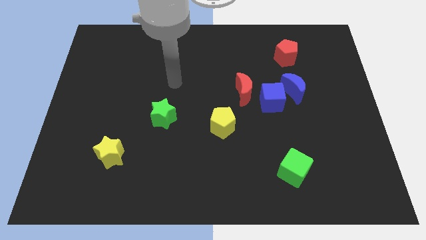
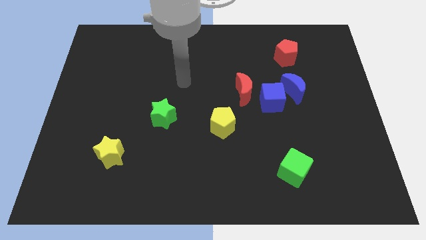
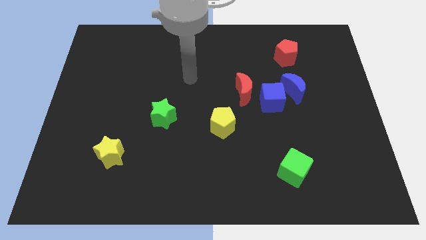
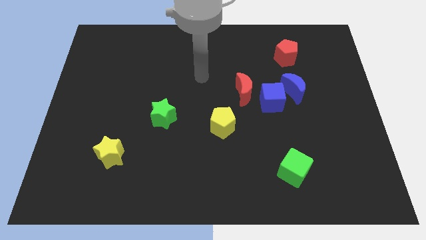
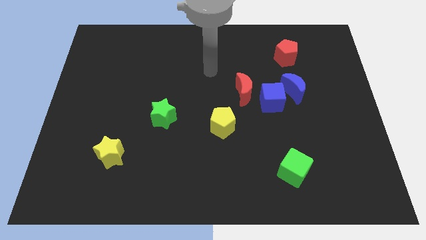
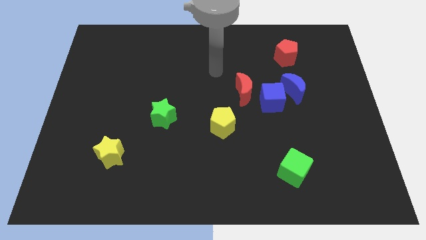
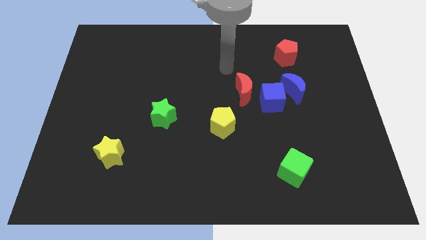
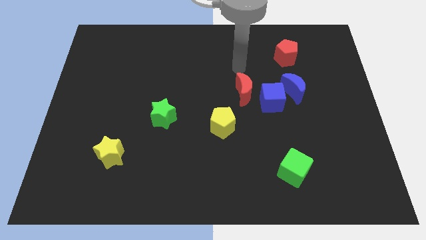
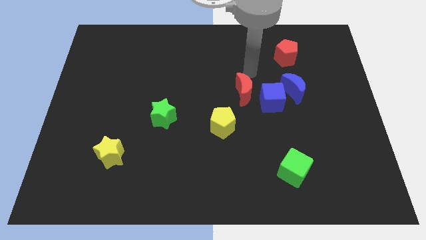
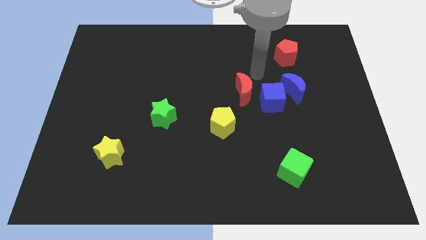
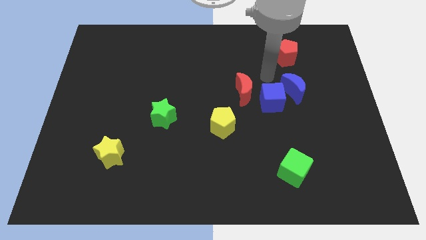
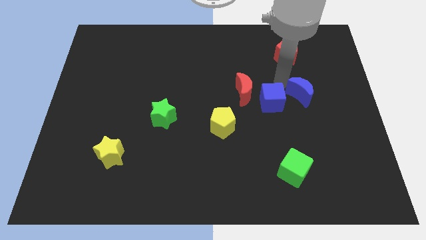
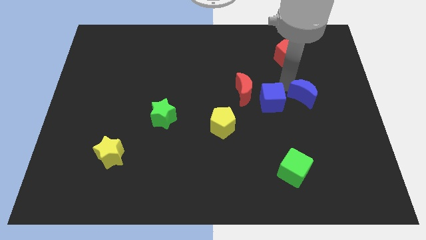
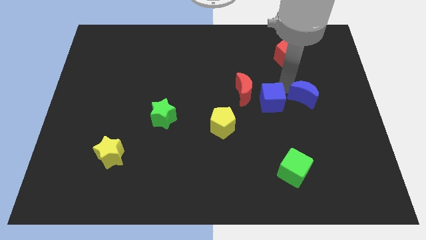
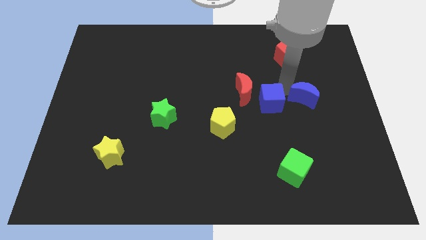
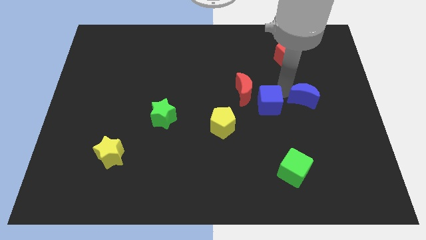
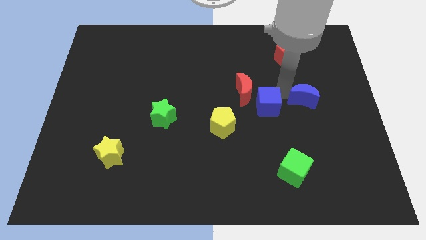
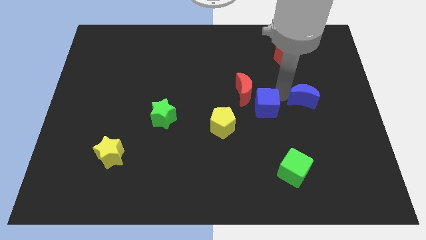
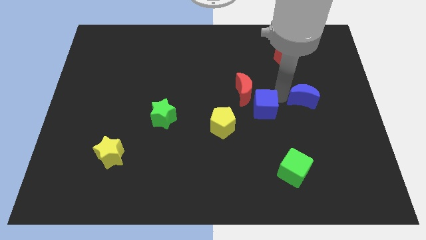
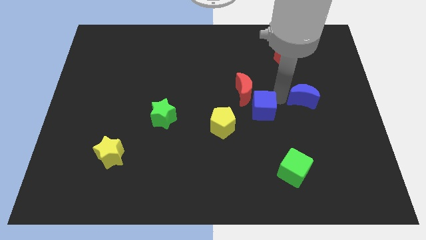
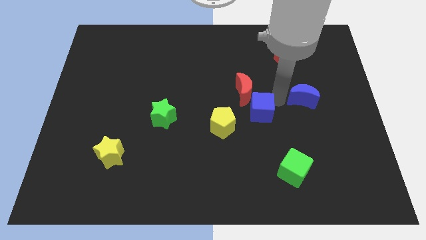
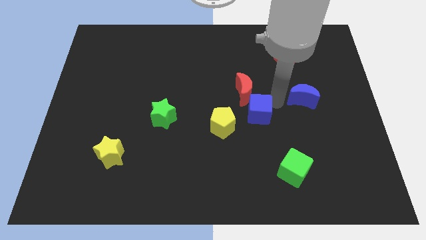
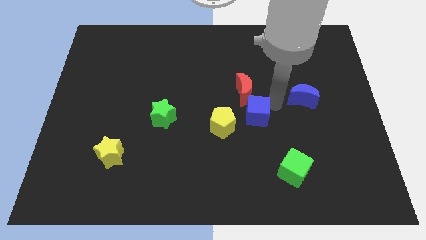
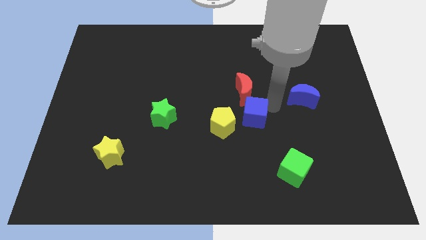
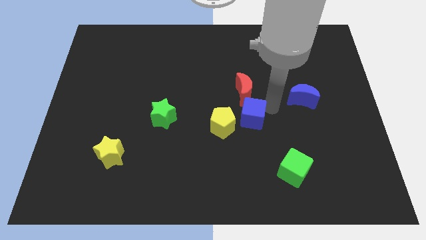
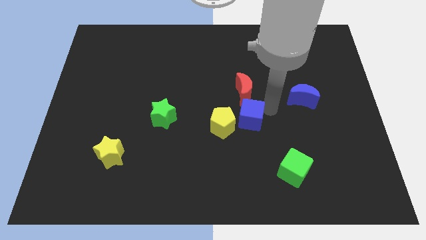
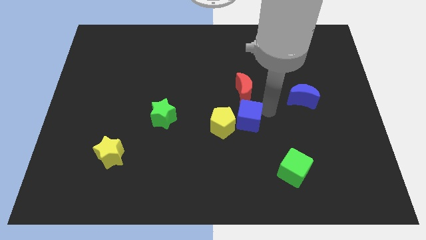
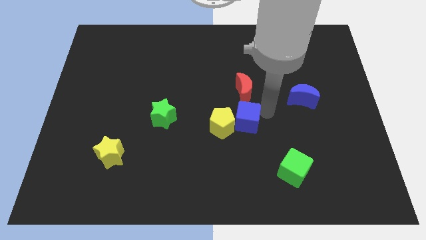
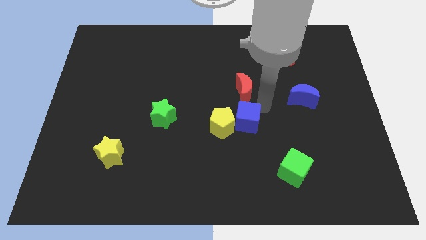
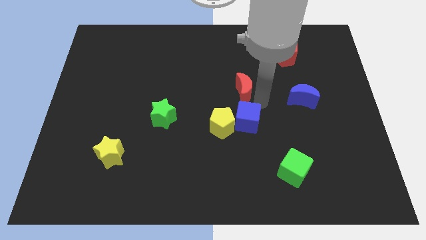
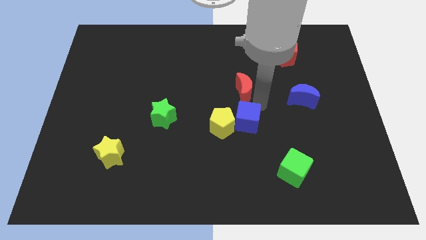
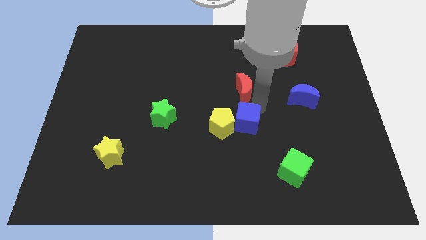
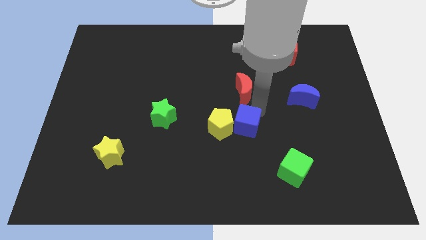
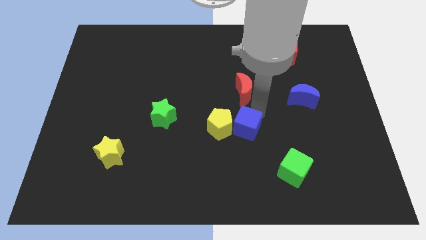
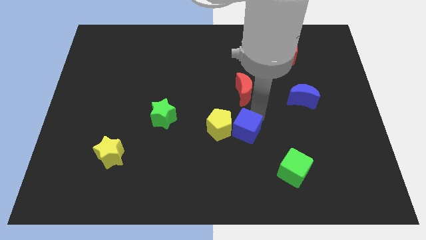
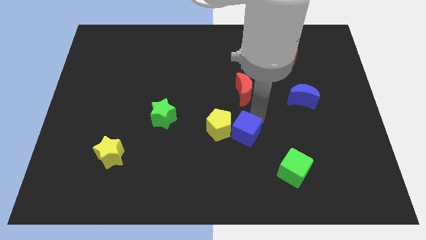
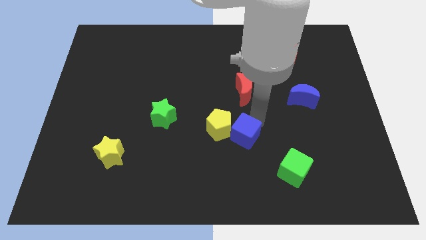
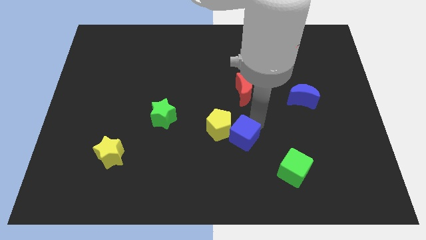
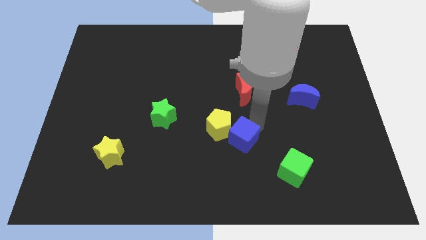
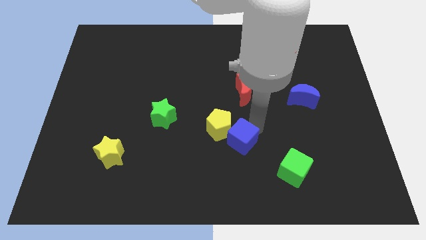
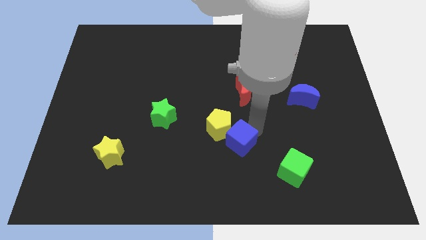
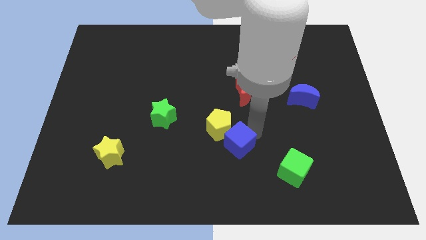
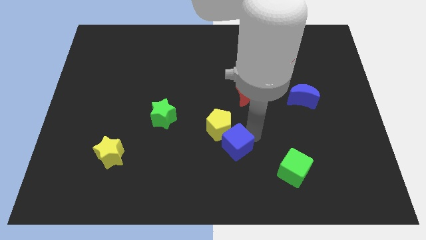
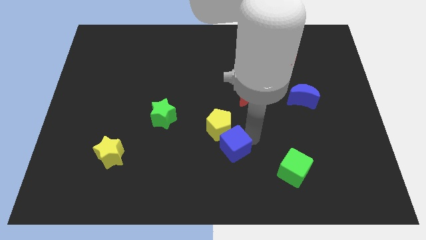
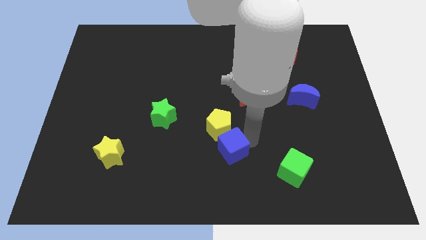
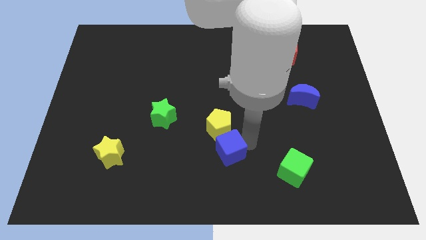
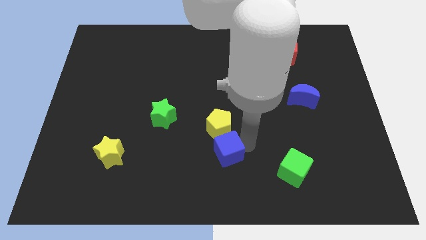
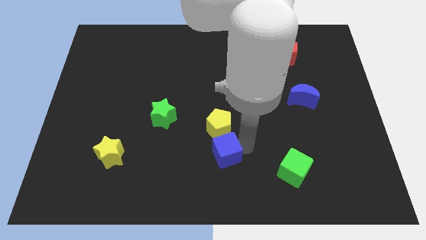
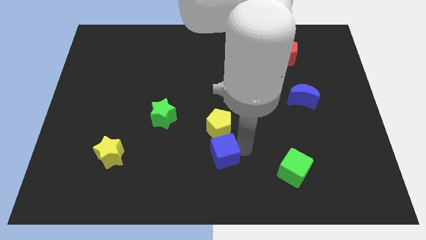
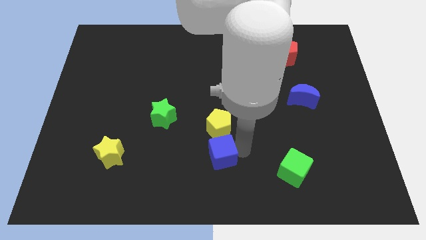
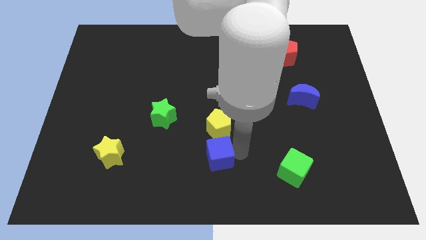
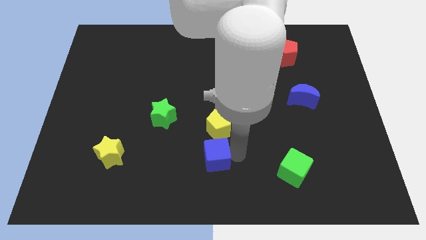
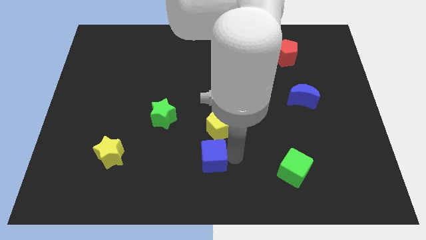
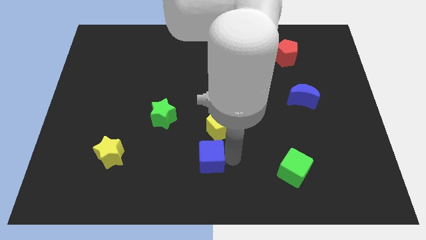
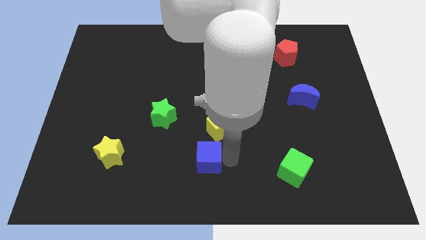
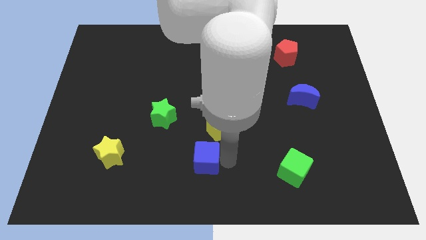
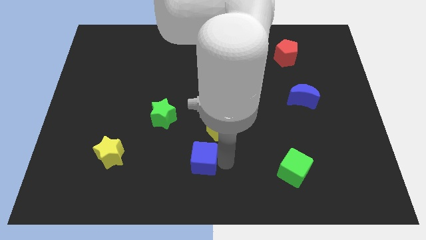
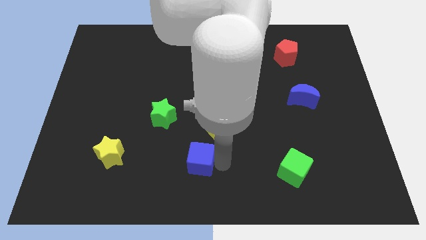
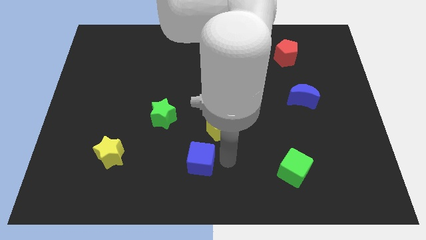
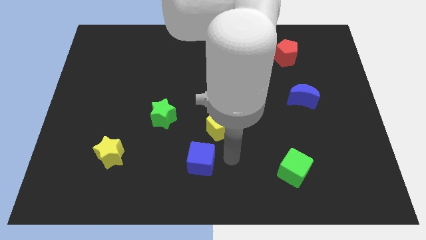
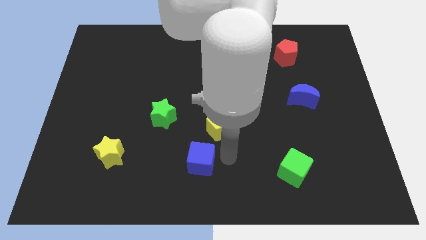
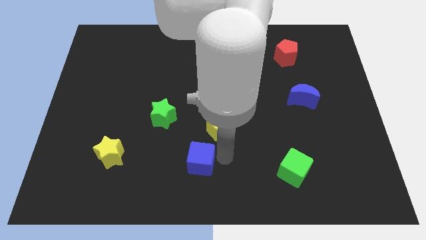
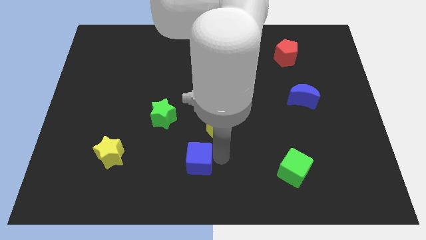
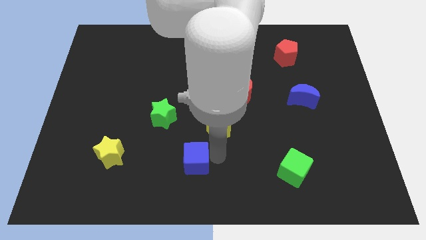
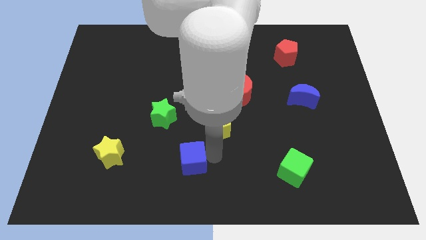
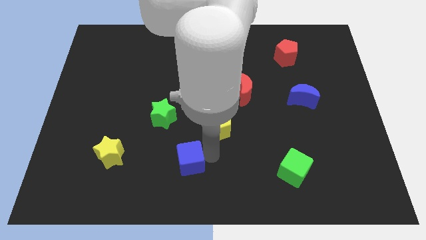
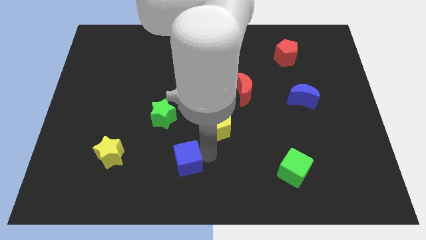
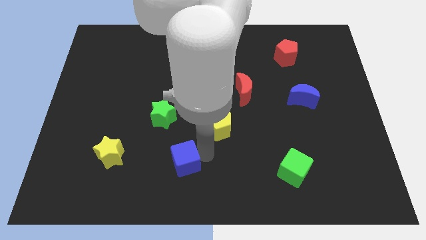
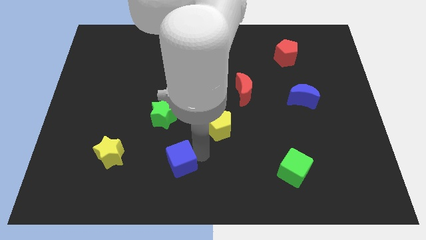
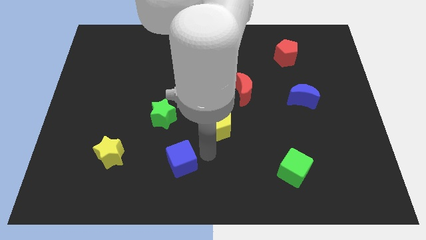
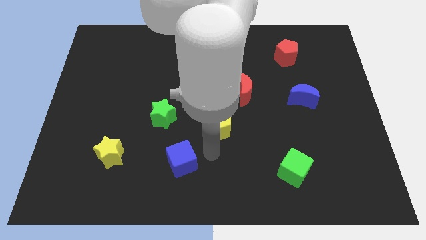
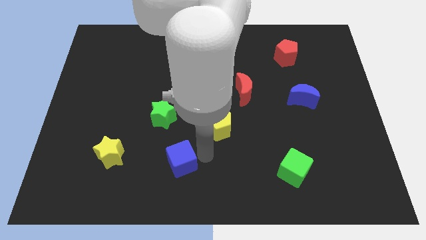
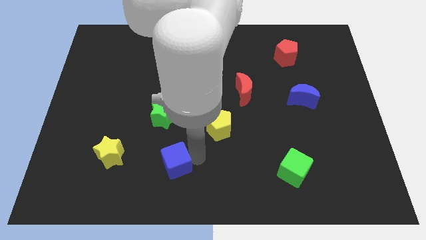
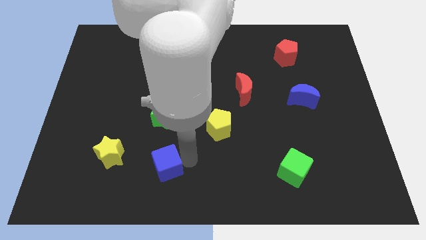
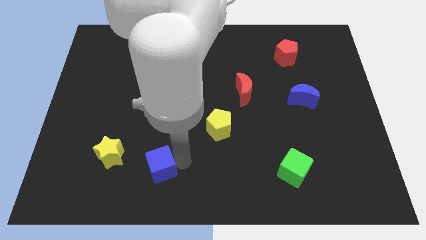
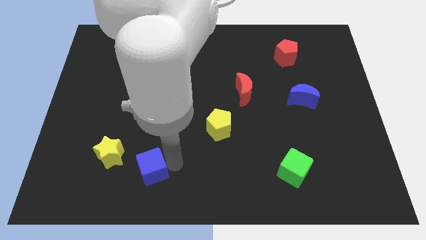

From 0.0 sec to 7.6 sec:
put the blue cube to the bottom right of the yellow star

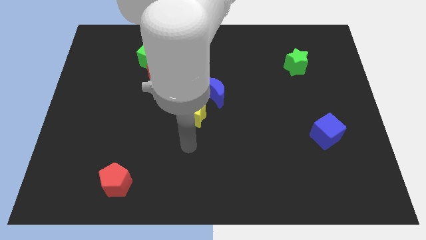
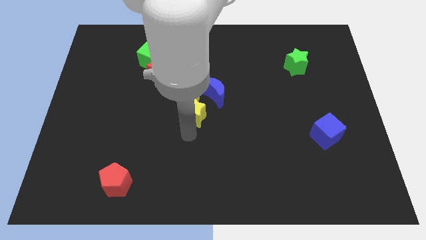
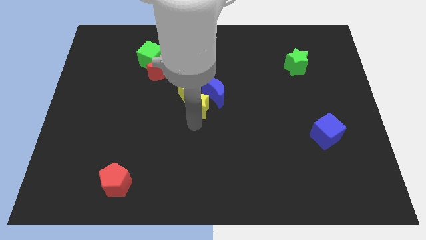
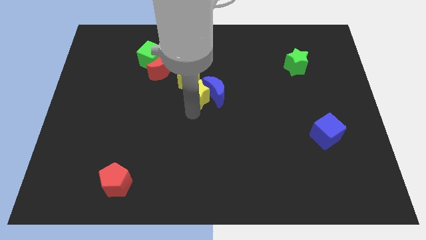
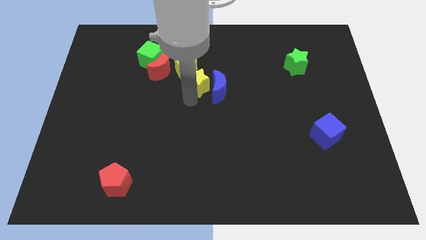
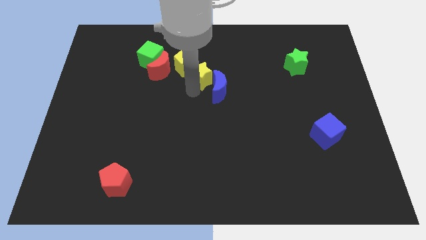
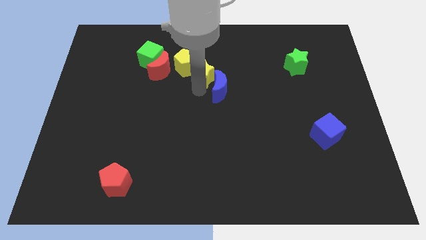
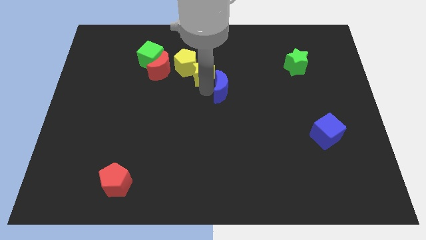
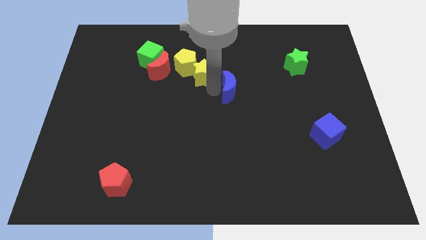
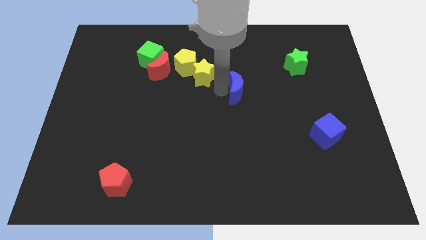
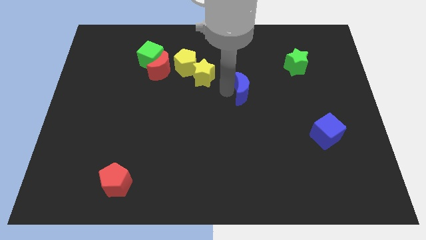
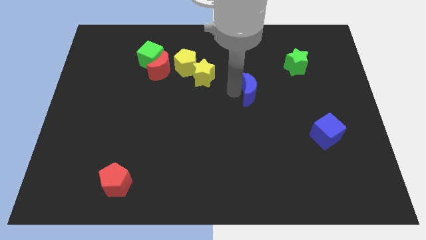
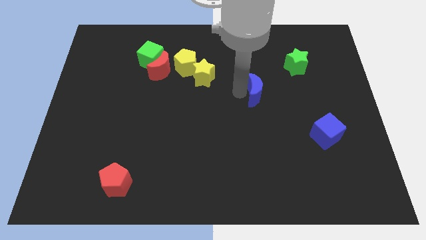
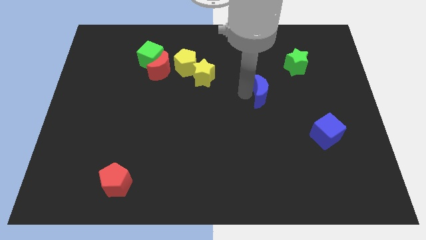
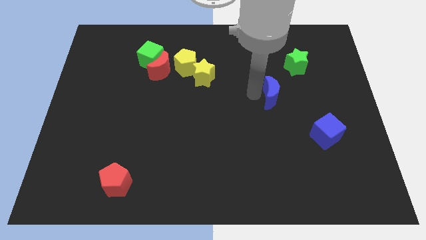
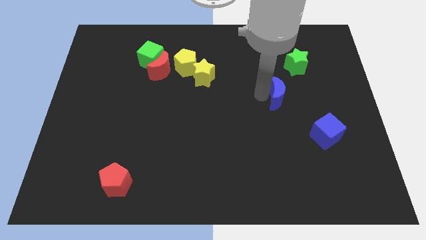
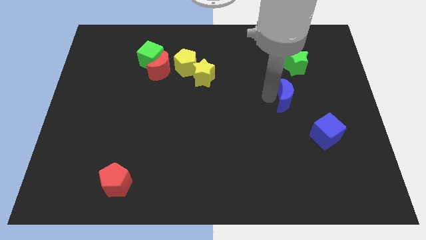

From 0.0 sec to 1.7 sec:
move the blue moon to the bottom of the green star
